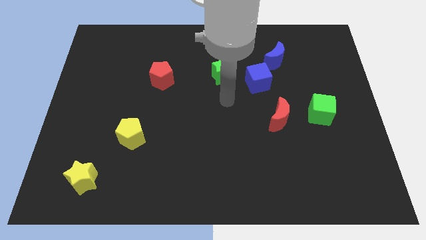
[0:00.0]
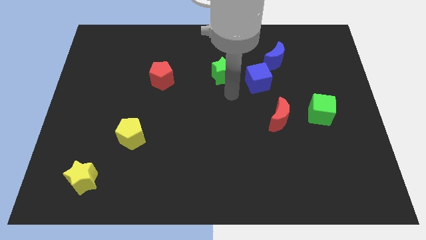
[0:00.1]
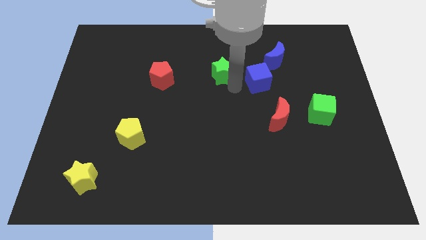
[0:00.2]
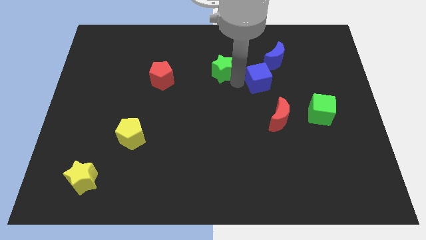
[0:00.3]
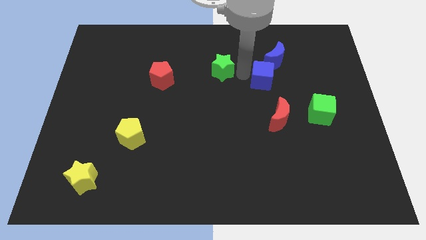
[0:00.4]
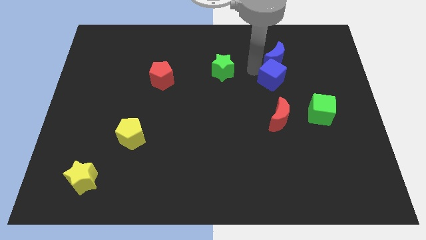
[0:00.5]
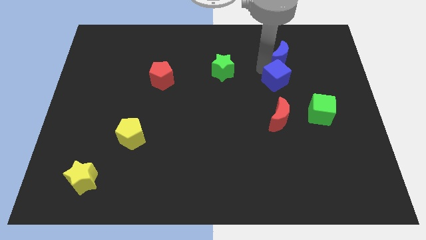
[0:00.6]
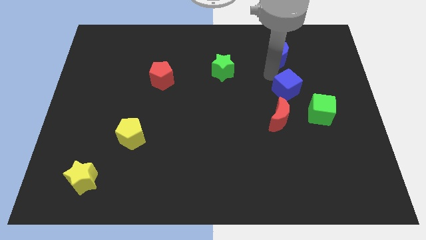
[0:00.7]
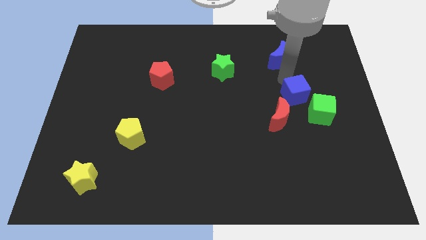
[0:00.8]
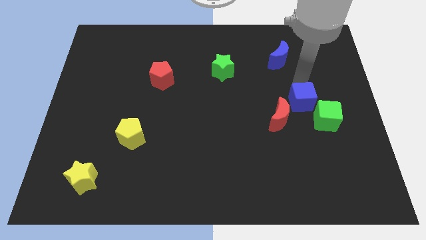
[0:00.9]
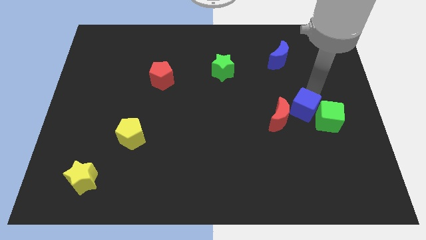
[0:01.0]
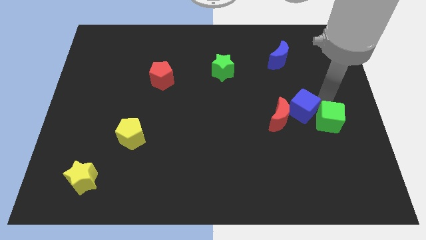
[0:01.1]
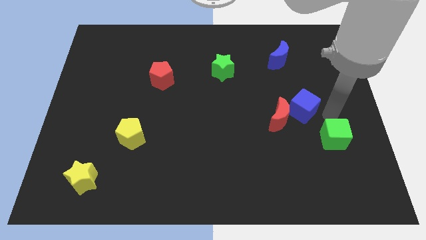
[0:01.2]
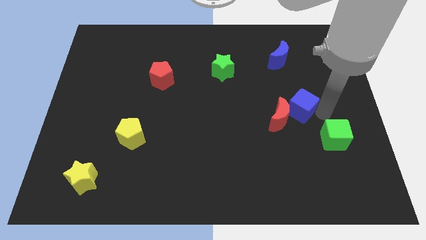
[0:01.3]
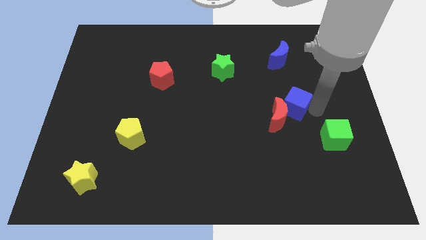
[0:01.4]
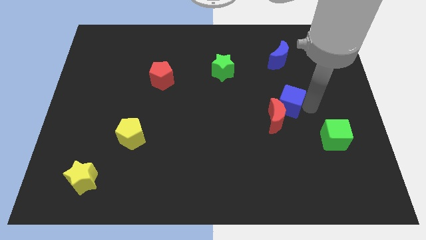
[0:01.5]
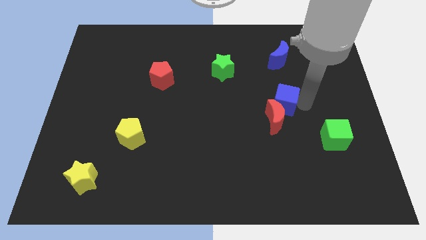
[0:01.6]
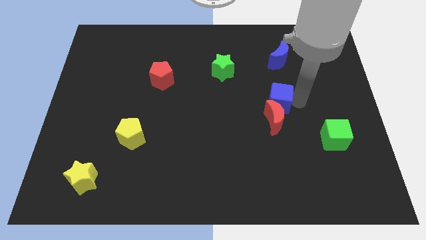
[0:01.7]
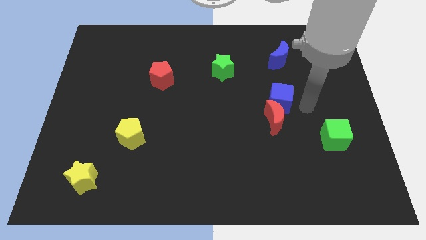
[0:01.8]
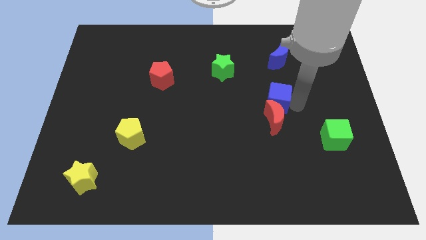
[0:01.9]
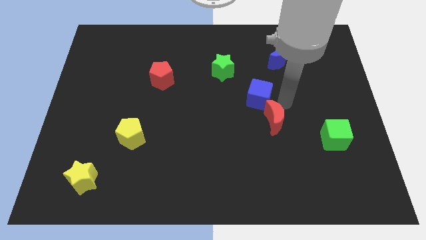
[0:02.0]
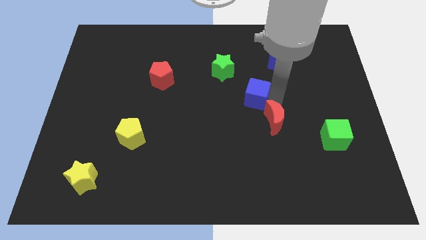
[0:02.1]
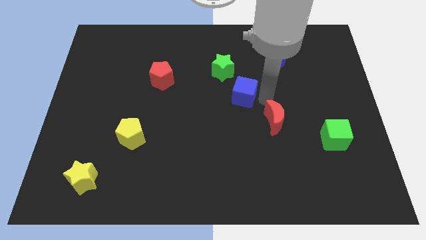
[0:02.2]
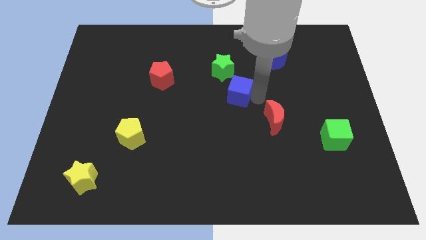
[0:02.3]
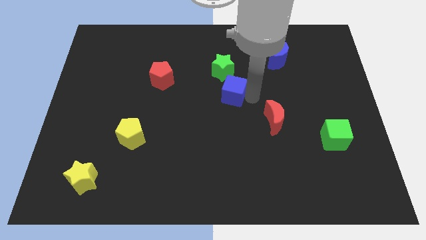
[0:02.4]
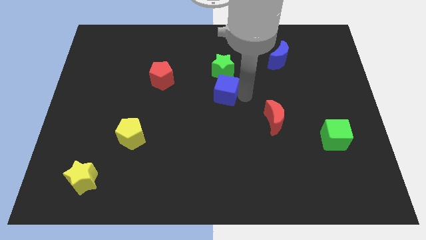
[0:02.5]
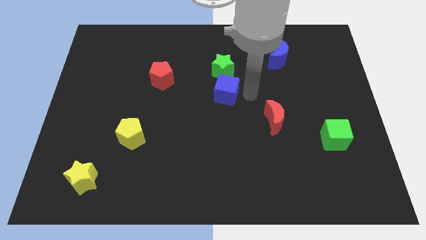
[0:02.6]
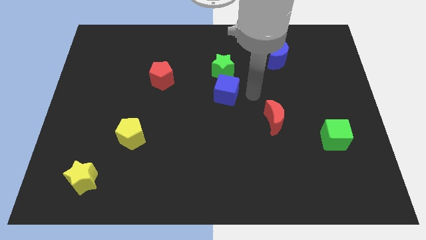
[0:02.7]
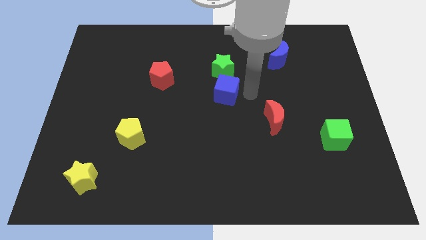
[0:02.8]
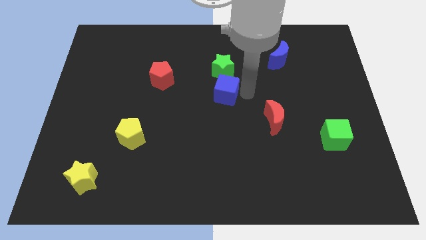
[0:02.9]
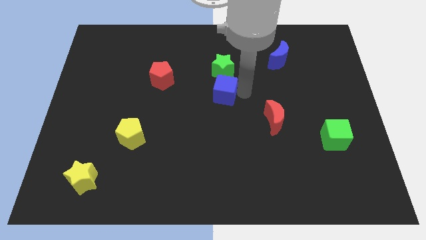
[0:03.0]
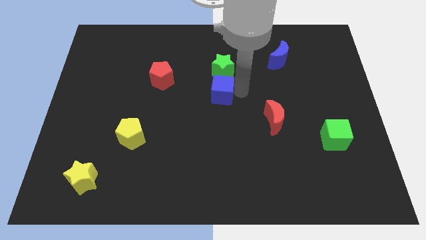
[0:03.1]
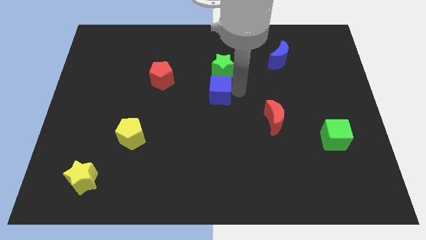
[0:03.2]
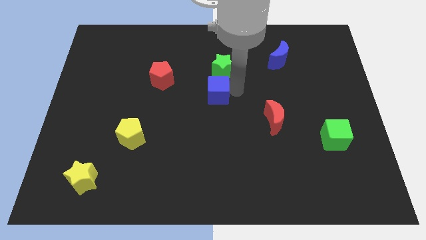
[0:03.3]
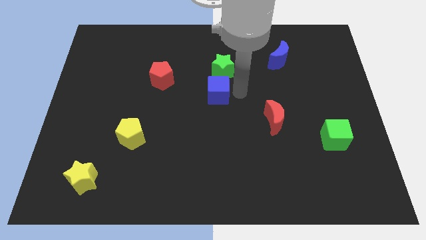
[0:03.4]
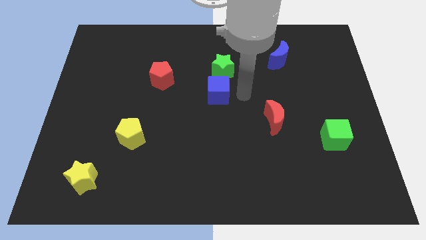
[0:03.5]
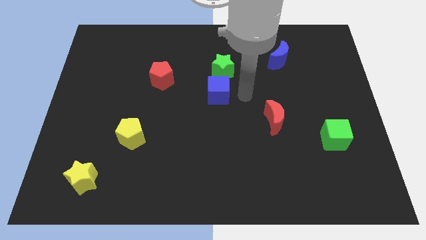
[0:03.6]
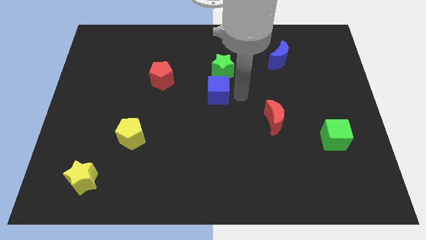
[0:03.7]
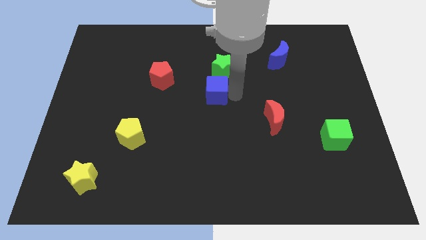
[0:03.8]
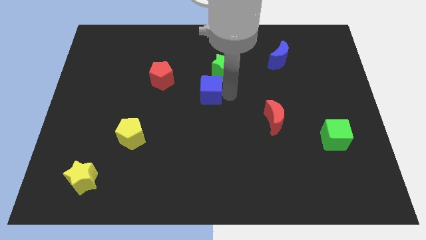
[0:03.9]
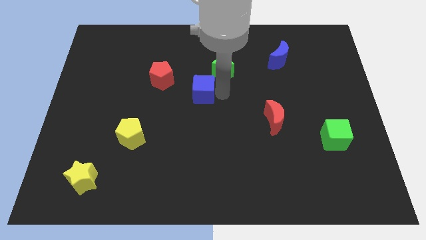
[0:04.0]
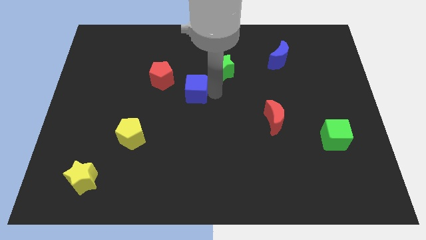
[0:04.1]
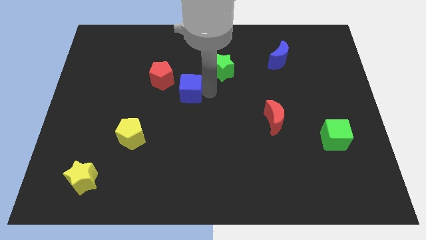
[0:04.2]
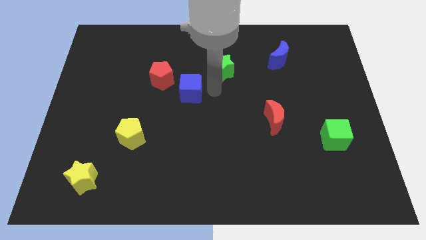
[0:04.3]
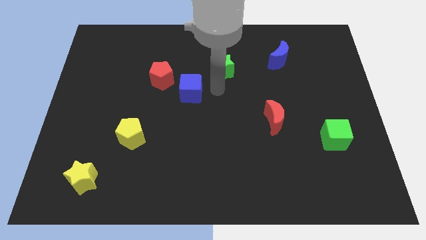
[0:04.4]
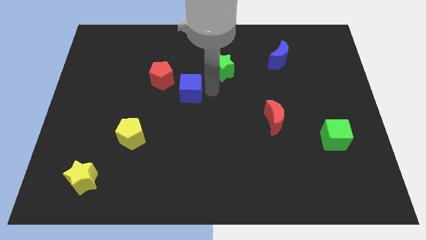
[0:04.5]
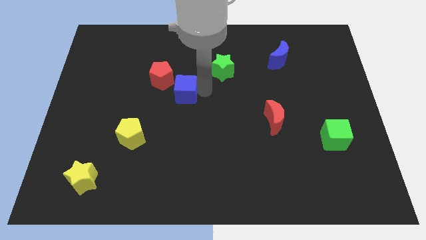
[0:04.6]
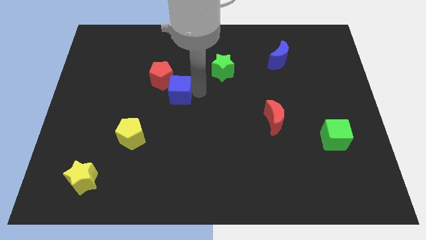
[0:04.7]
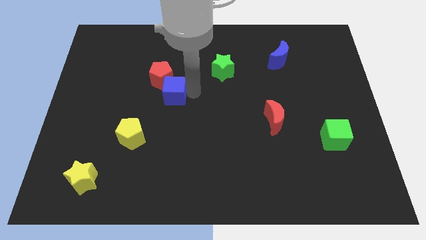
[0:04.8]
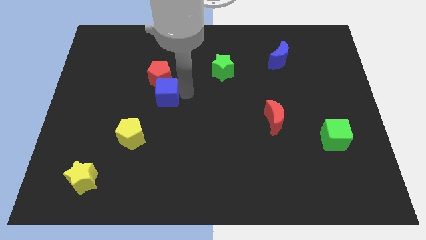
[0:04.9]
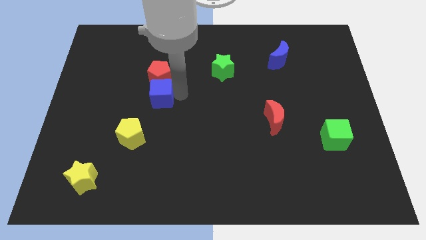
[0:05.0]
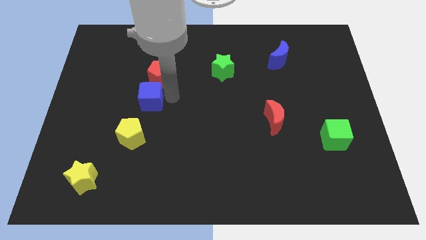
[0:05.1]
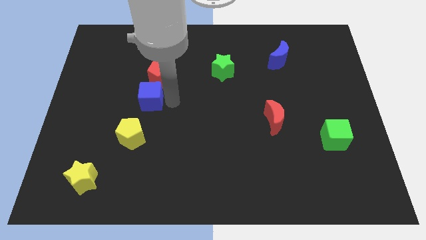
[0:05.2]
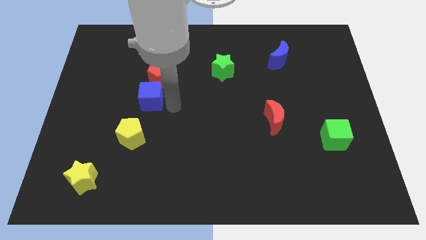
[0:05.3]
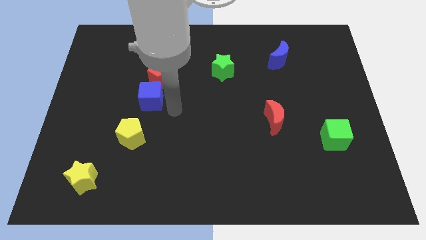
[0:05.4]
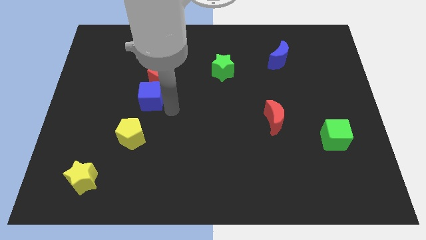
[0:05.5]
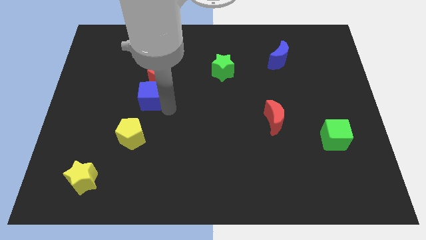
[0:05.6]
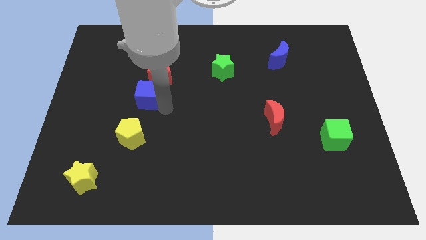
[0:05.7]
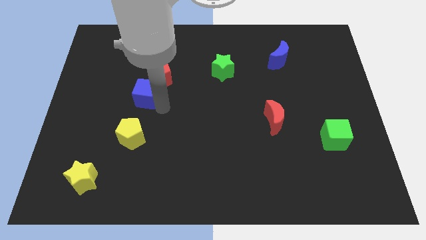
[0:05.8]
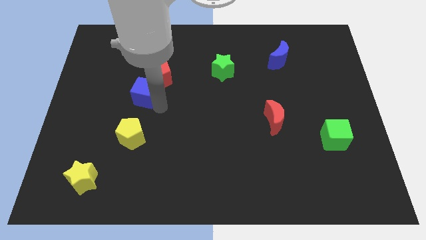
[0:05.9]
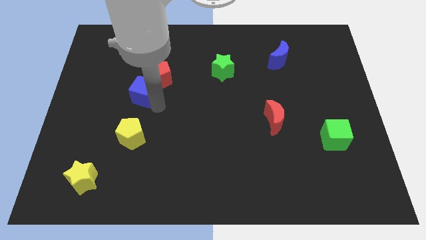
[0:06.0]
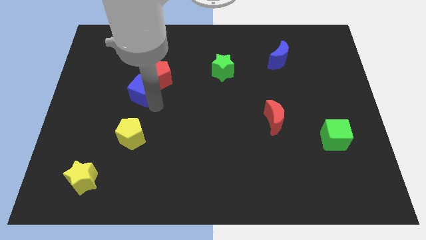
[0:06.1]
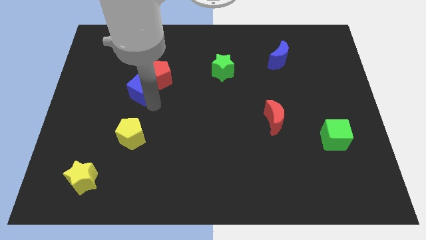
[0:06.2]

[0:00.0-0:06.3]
push the blue cube just left of the red pentagon

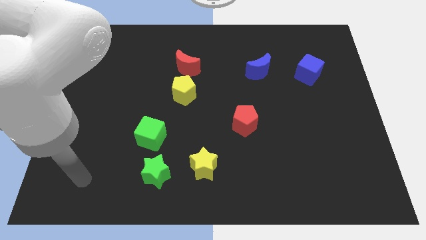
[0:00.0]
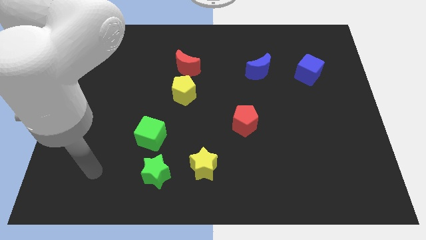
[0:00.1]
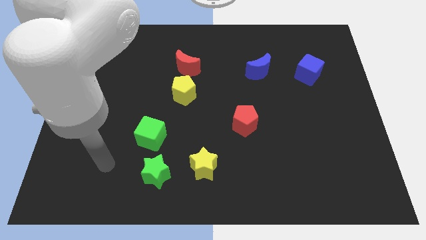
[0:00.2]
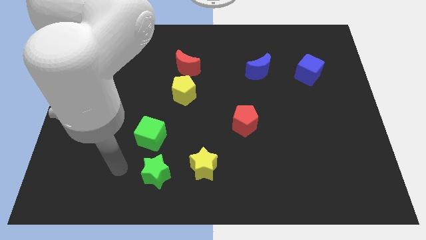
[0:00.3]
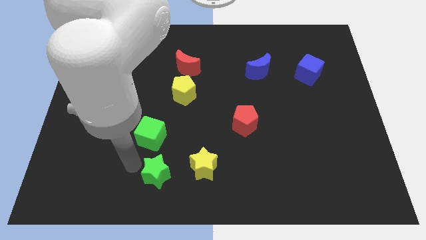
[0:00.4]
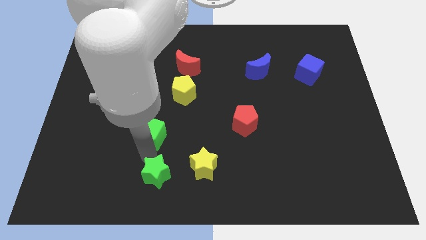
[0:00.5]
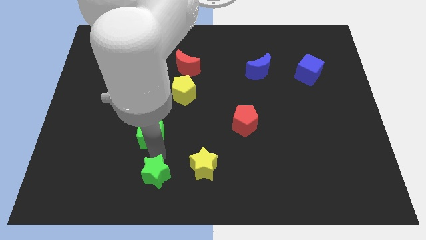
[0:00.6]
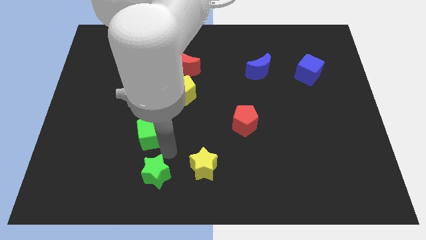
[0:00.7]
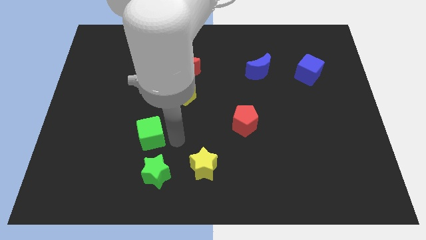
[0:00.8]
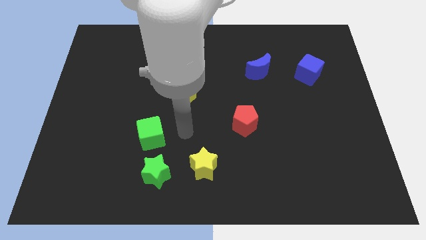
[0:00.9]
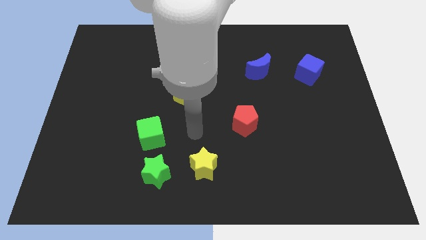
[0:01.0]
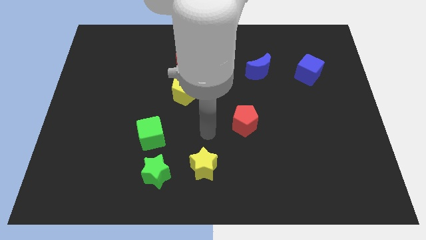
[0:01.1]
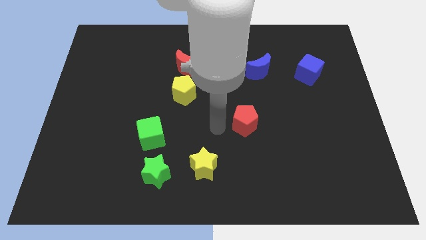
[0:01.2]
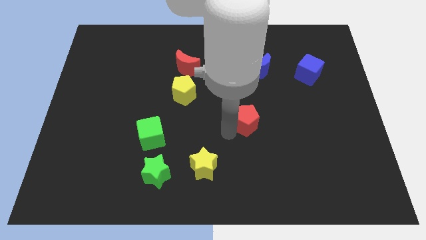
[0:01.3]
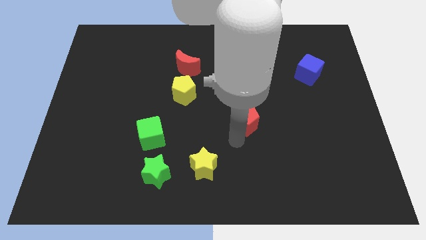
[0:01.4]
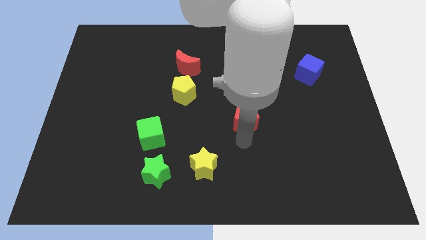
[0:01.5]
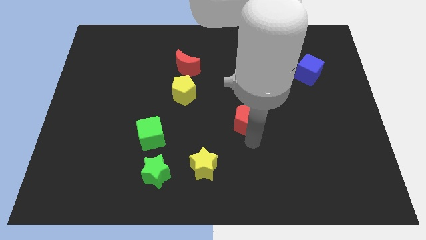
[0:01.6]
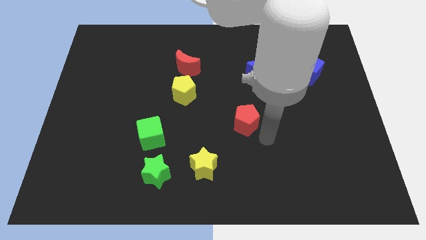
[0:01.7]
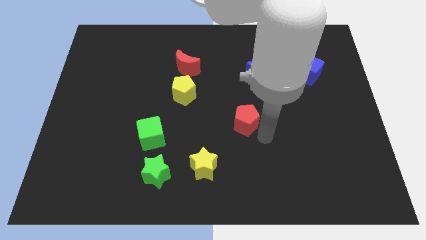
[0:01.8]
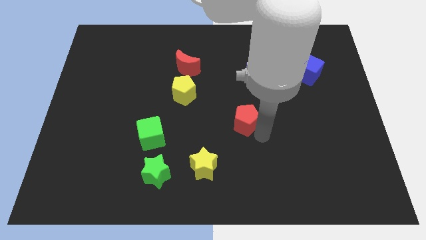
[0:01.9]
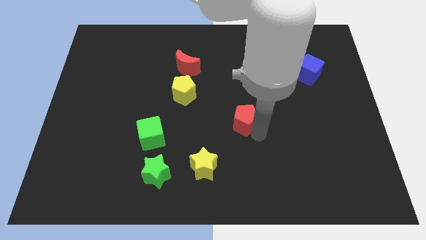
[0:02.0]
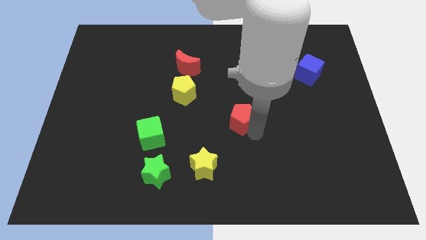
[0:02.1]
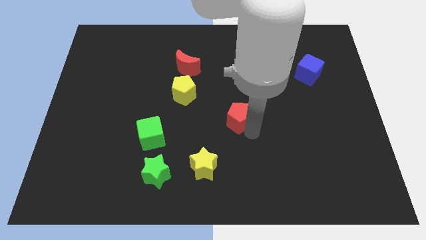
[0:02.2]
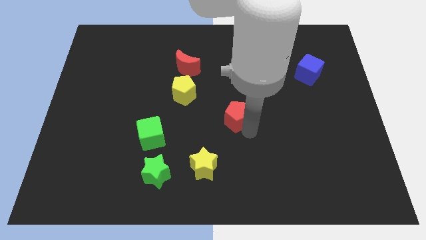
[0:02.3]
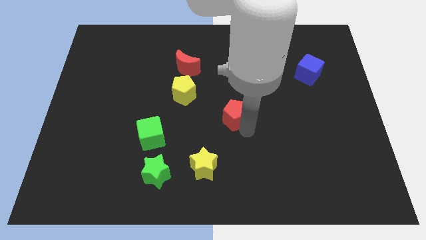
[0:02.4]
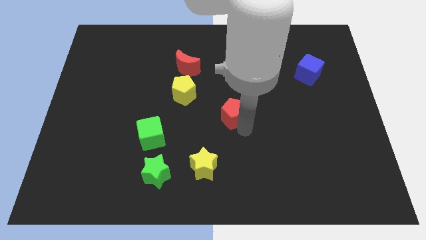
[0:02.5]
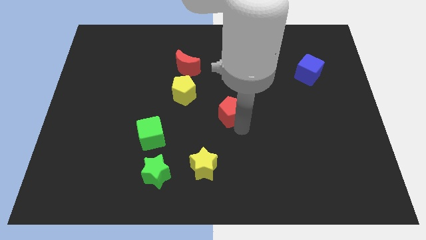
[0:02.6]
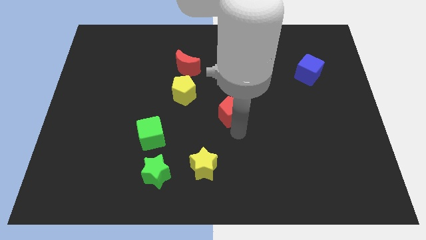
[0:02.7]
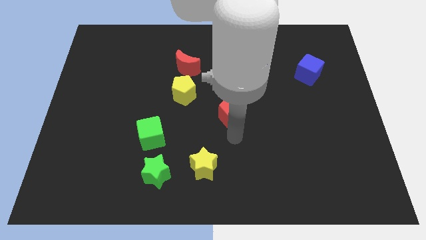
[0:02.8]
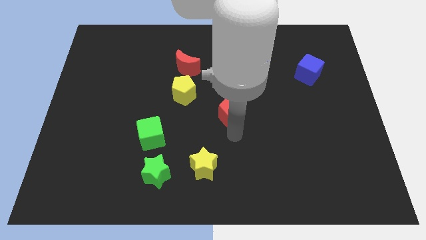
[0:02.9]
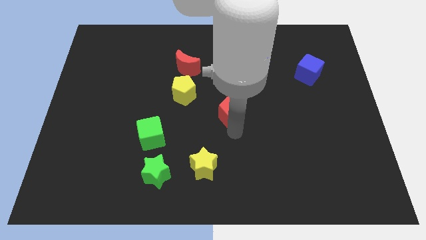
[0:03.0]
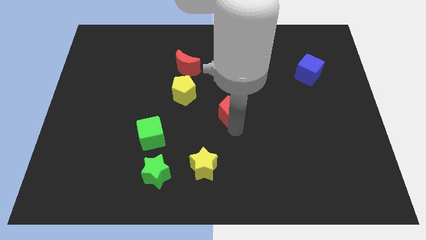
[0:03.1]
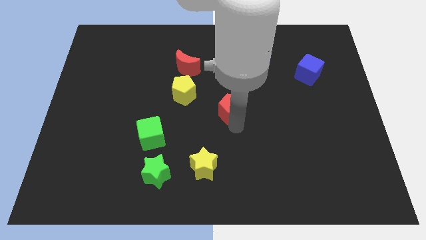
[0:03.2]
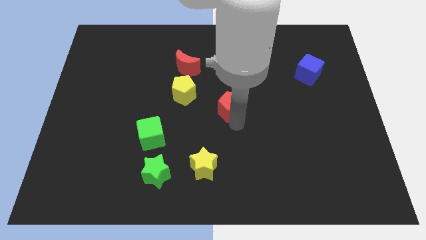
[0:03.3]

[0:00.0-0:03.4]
slide the red pentagon right of the yellow pentagon
